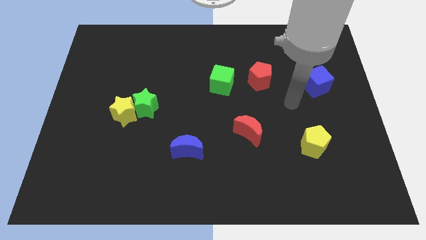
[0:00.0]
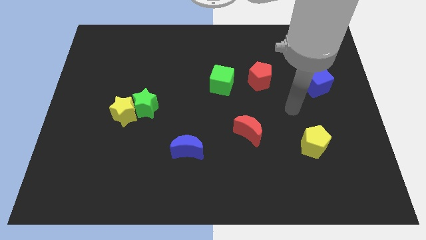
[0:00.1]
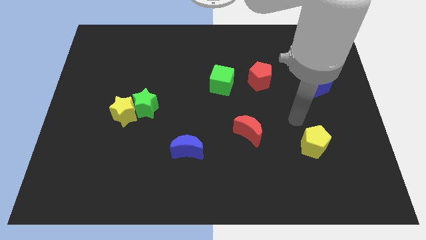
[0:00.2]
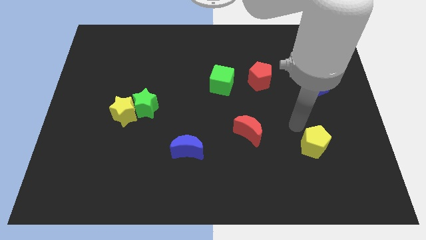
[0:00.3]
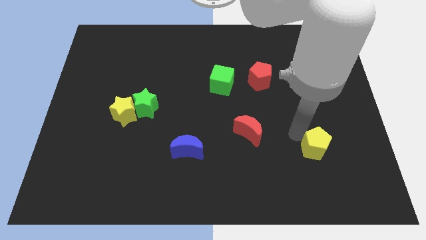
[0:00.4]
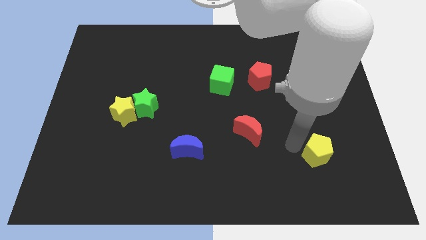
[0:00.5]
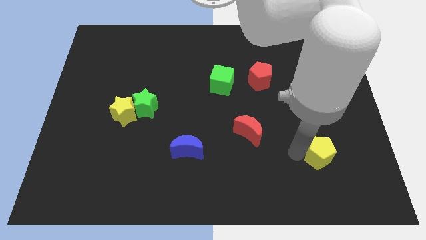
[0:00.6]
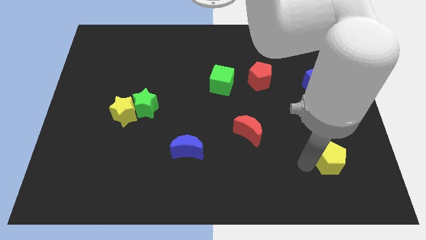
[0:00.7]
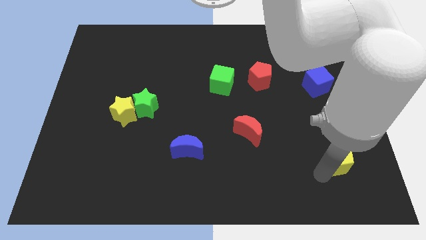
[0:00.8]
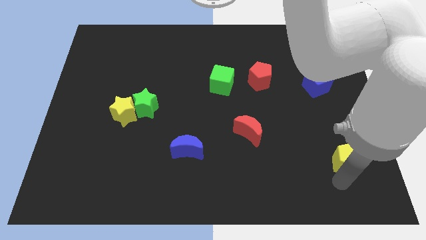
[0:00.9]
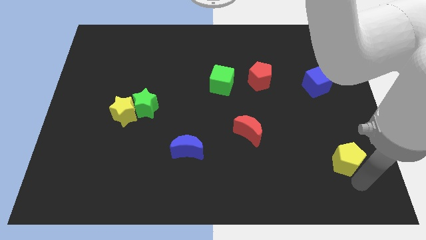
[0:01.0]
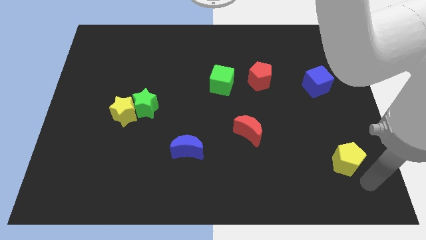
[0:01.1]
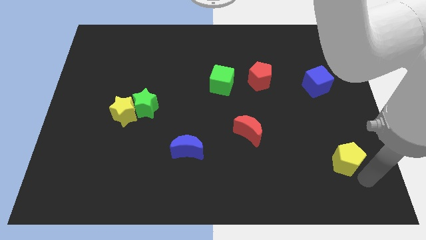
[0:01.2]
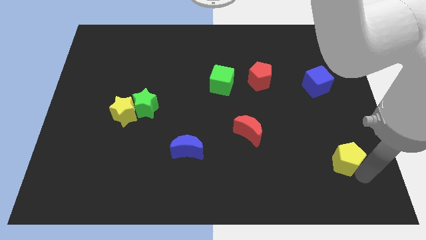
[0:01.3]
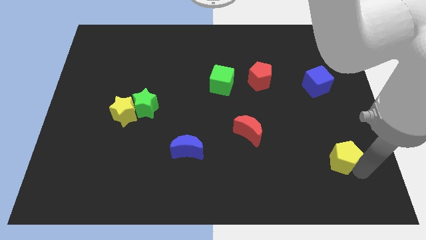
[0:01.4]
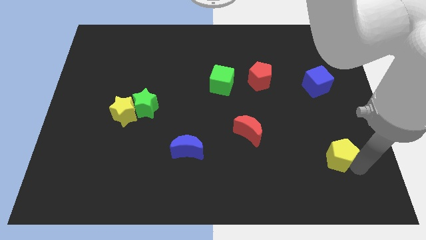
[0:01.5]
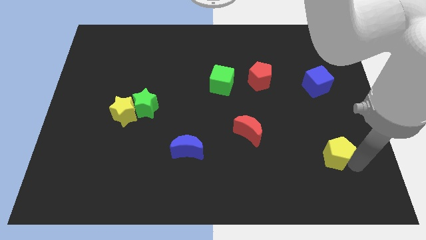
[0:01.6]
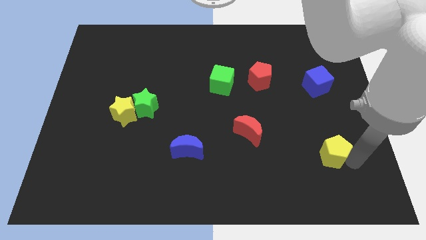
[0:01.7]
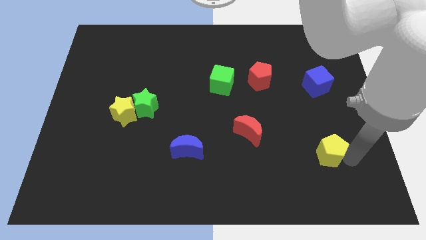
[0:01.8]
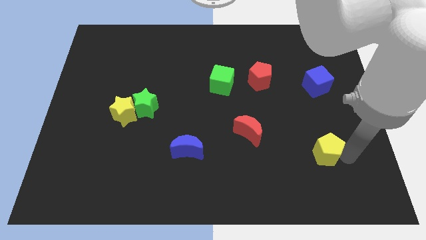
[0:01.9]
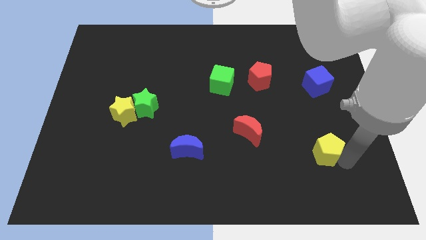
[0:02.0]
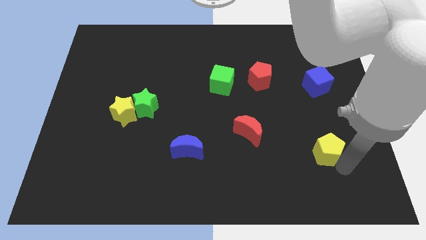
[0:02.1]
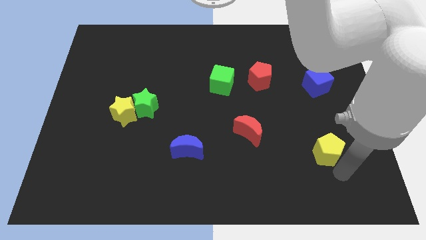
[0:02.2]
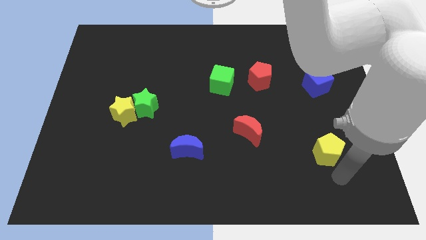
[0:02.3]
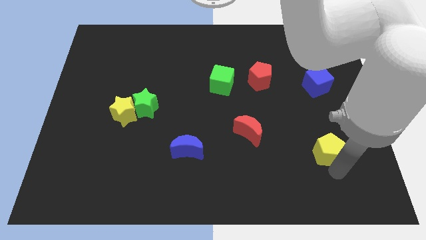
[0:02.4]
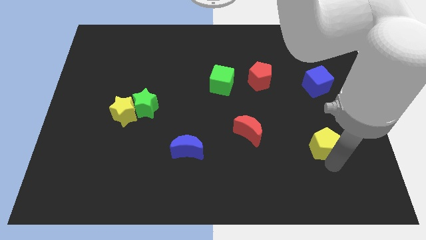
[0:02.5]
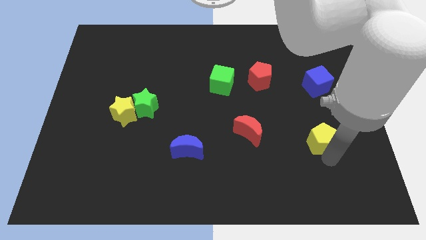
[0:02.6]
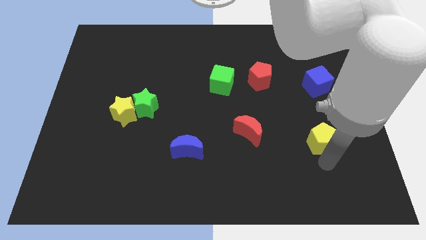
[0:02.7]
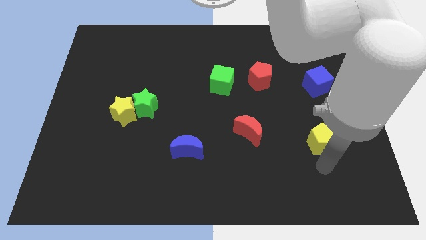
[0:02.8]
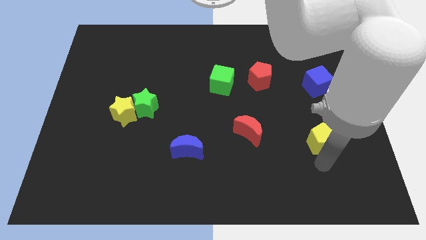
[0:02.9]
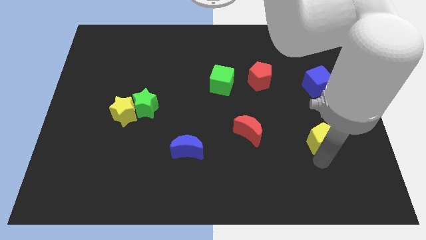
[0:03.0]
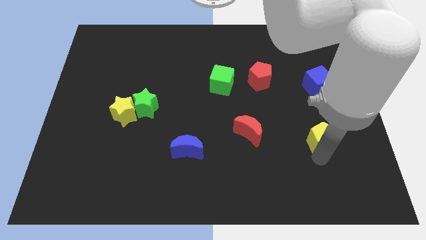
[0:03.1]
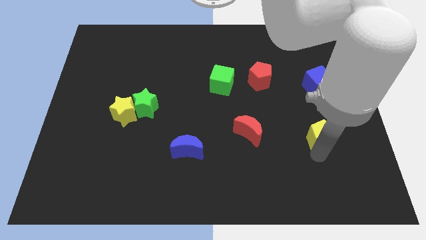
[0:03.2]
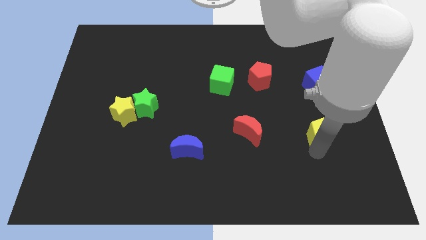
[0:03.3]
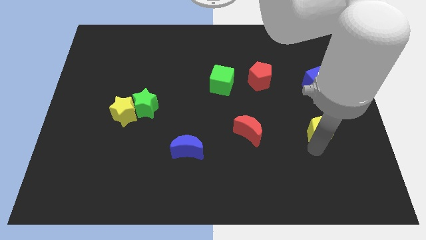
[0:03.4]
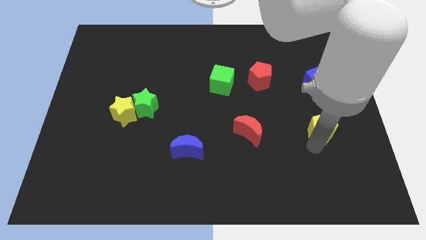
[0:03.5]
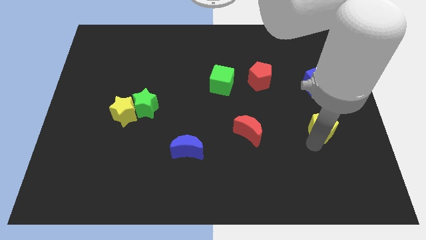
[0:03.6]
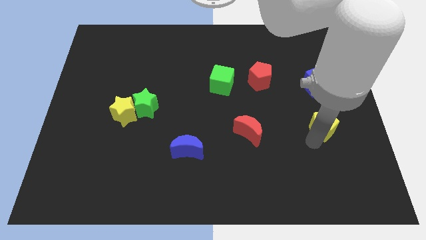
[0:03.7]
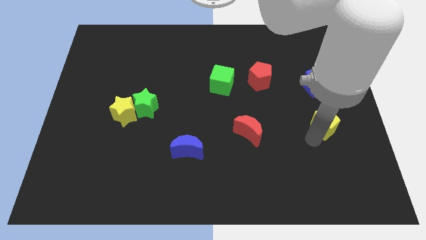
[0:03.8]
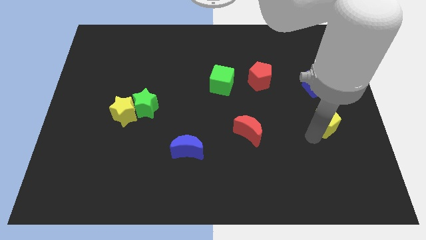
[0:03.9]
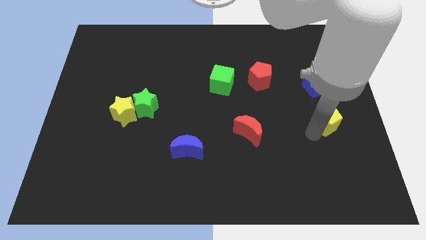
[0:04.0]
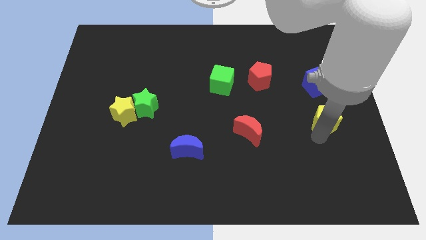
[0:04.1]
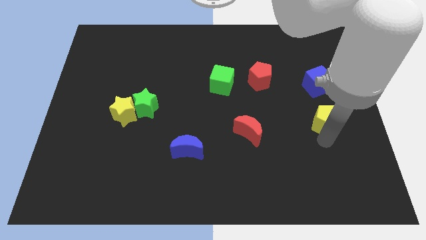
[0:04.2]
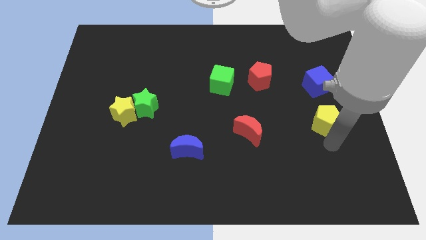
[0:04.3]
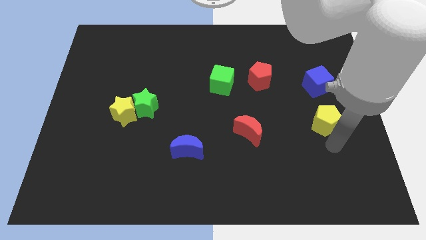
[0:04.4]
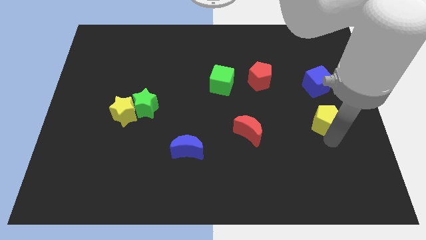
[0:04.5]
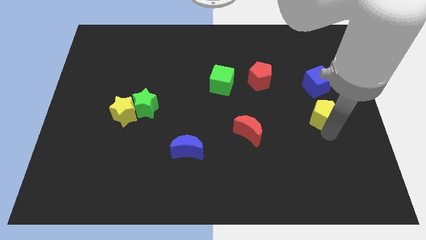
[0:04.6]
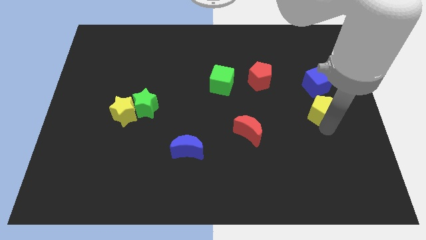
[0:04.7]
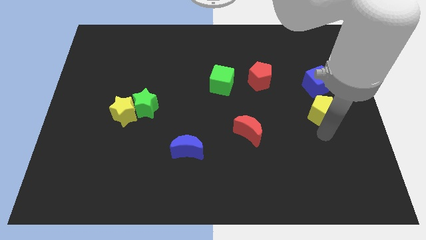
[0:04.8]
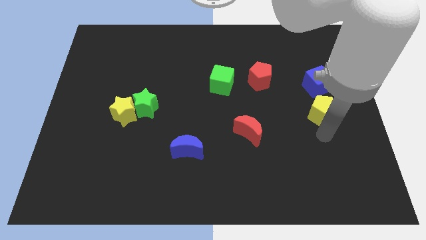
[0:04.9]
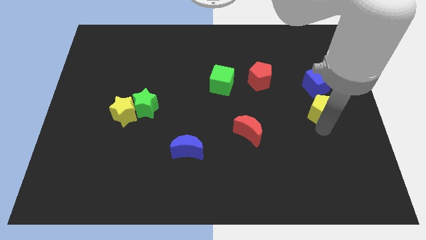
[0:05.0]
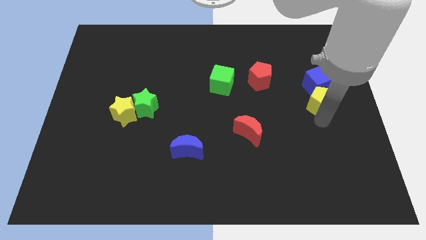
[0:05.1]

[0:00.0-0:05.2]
slide the yellow pentagon to the blue cube

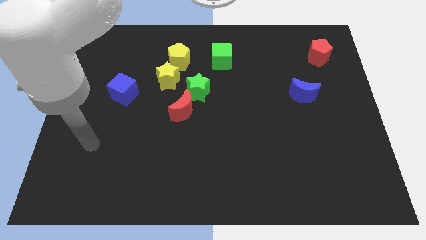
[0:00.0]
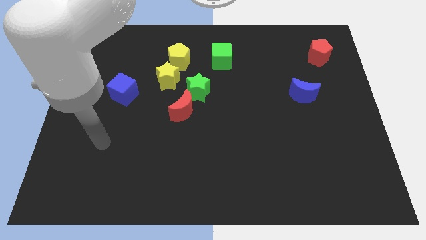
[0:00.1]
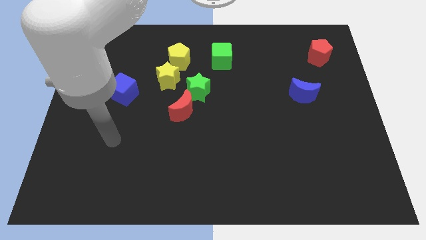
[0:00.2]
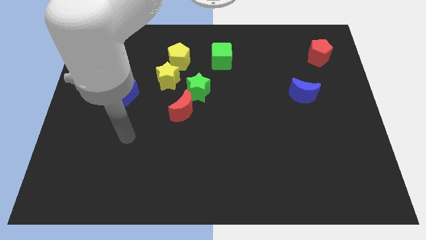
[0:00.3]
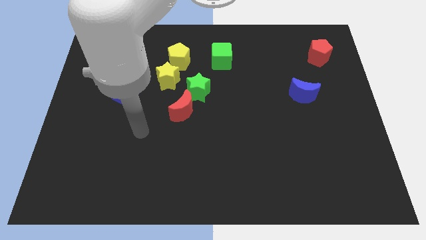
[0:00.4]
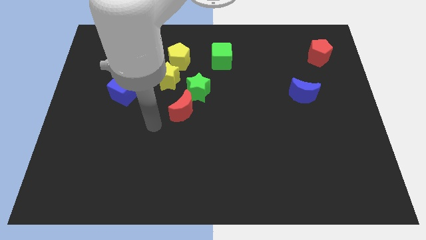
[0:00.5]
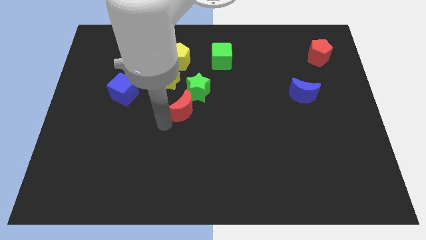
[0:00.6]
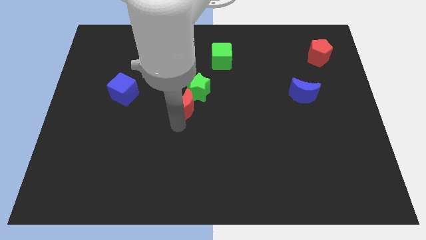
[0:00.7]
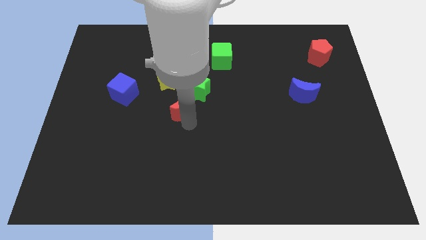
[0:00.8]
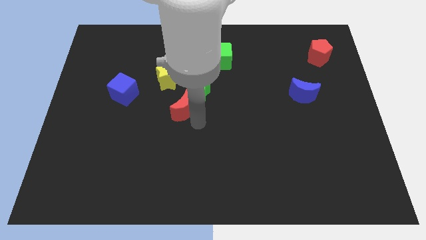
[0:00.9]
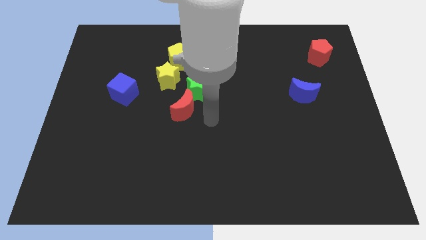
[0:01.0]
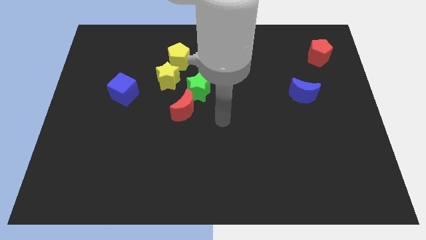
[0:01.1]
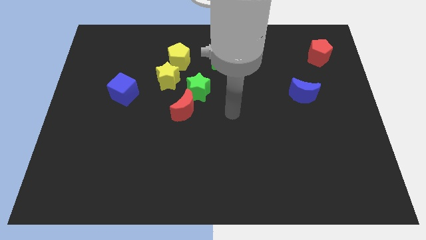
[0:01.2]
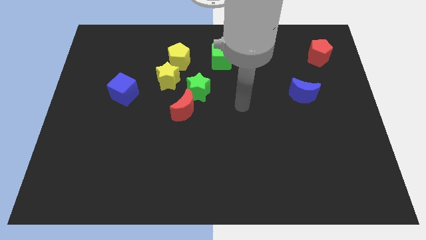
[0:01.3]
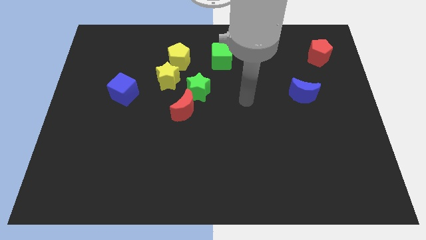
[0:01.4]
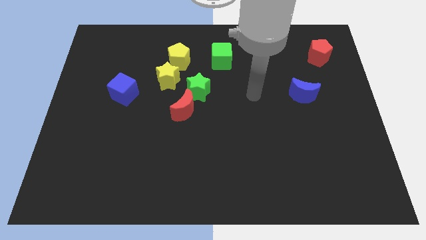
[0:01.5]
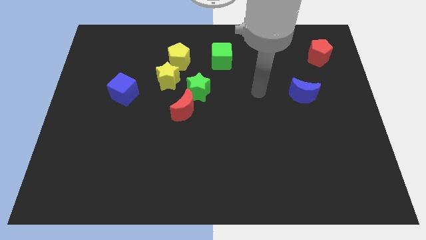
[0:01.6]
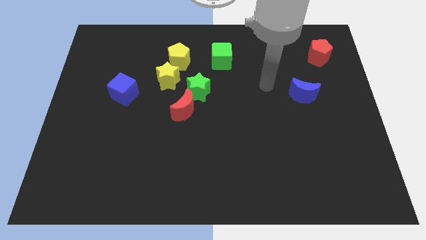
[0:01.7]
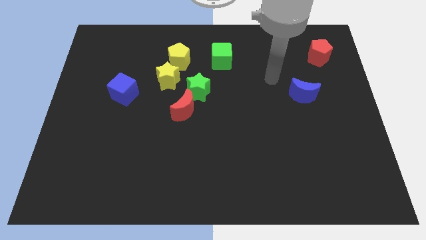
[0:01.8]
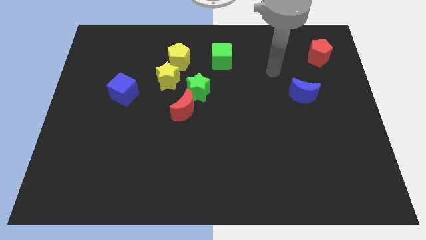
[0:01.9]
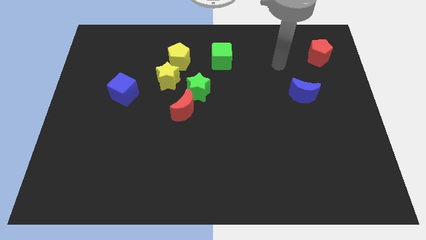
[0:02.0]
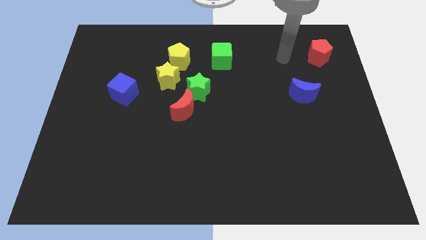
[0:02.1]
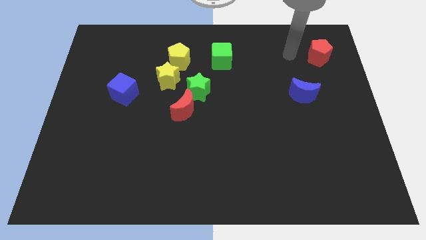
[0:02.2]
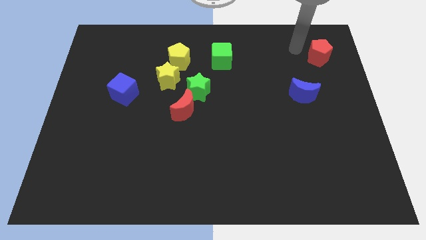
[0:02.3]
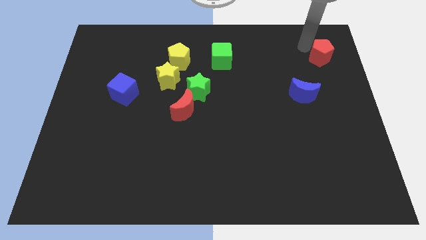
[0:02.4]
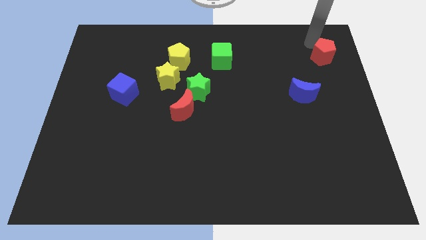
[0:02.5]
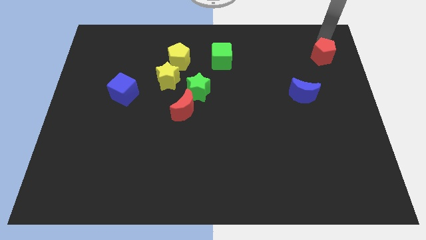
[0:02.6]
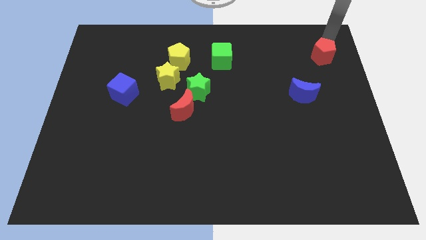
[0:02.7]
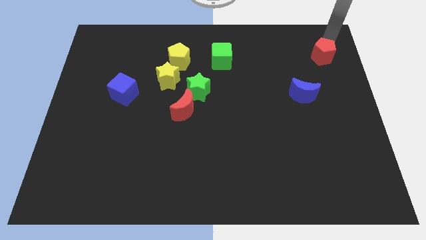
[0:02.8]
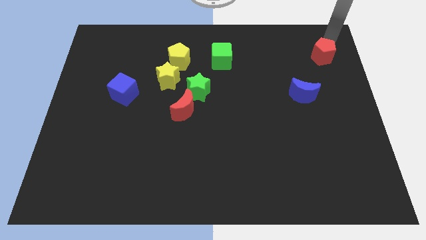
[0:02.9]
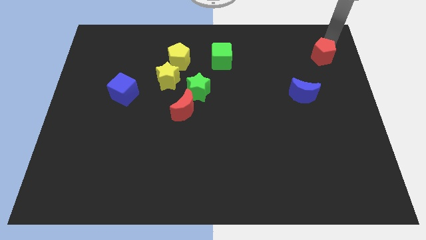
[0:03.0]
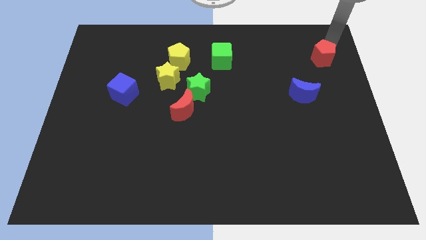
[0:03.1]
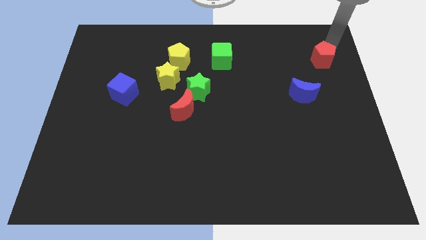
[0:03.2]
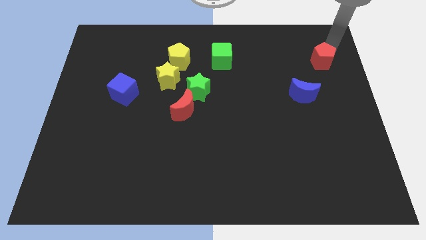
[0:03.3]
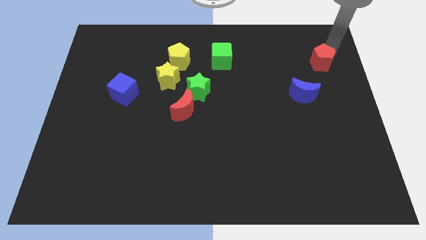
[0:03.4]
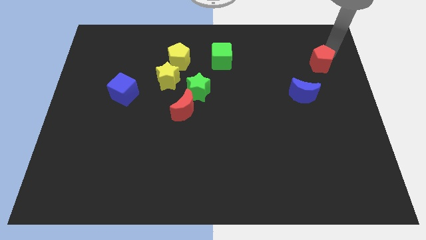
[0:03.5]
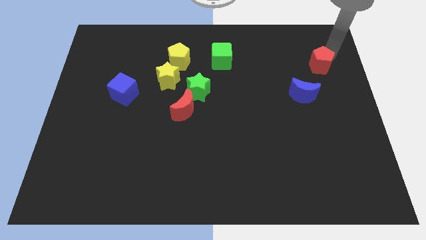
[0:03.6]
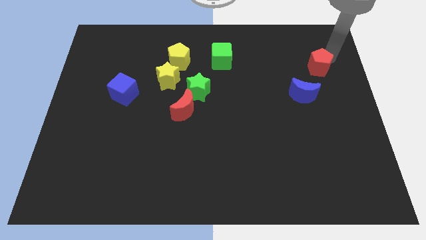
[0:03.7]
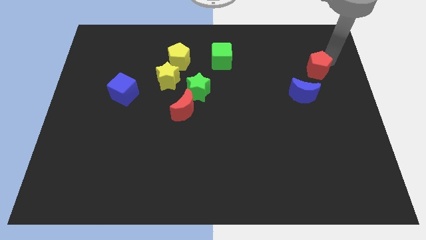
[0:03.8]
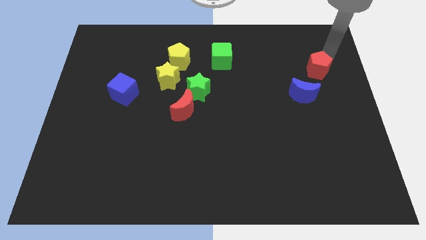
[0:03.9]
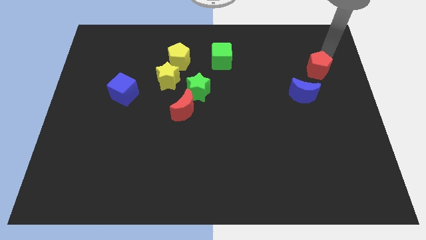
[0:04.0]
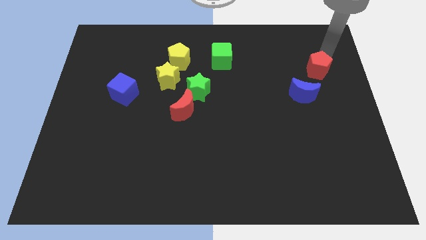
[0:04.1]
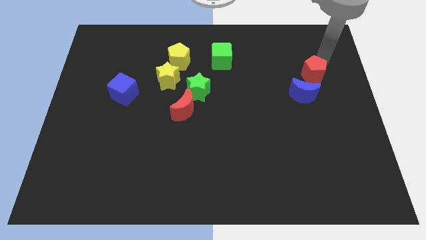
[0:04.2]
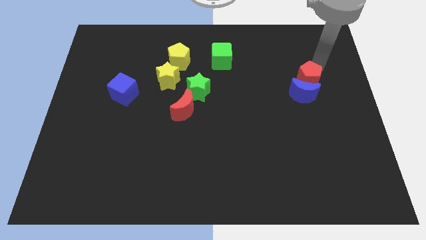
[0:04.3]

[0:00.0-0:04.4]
push the red pentagon to the blue moon
